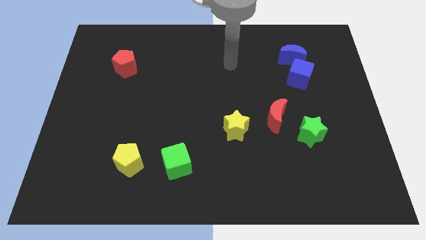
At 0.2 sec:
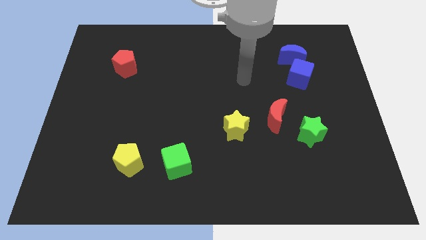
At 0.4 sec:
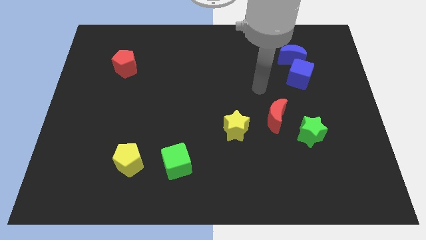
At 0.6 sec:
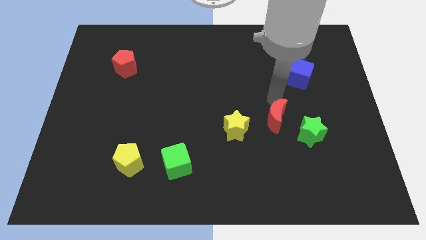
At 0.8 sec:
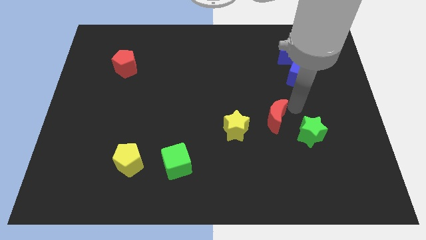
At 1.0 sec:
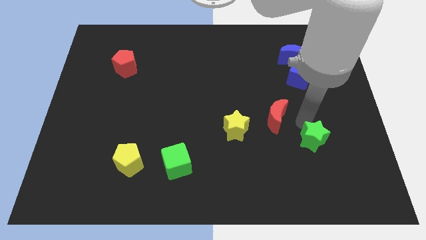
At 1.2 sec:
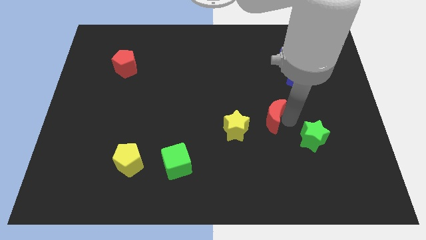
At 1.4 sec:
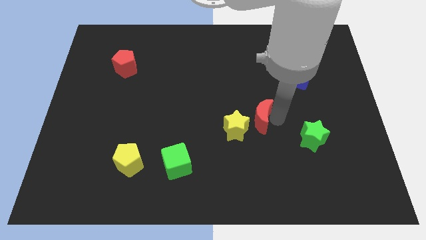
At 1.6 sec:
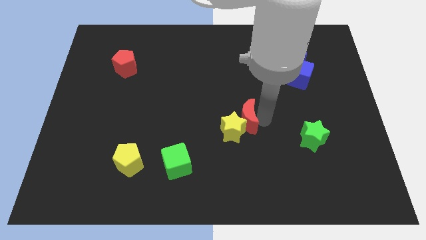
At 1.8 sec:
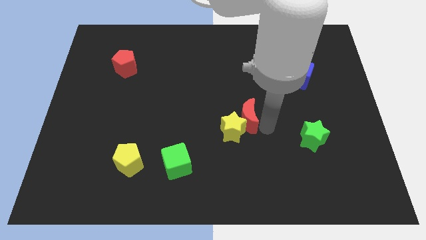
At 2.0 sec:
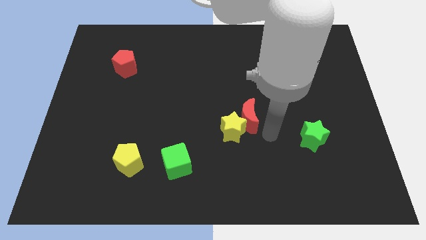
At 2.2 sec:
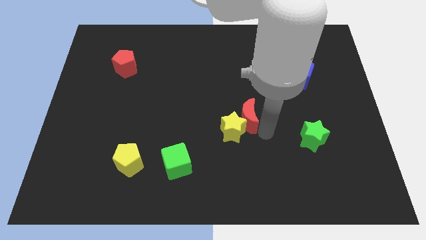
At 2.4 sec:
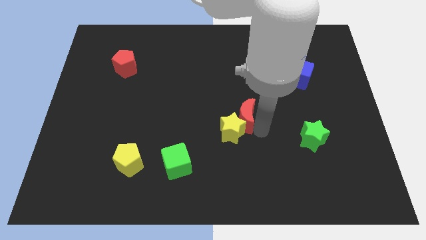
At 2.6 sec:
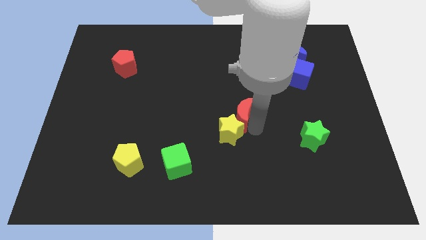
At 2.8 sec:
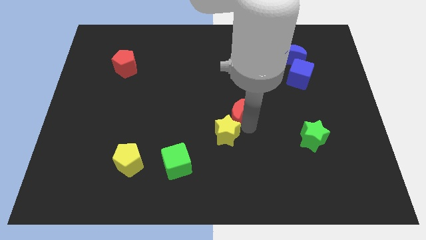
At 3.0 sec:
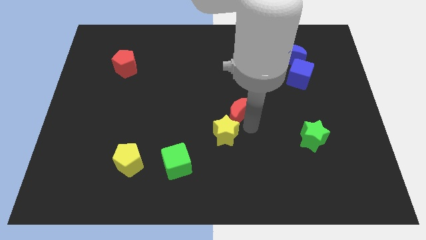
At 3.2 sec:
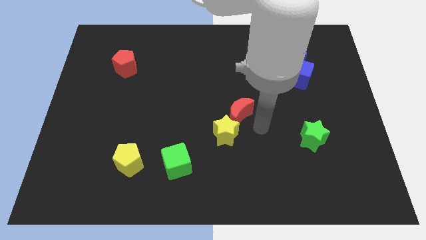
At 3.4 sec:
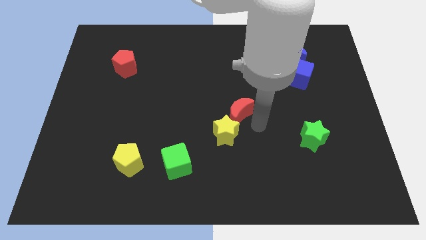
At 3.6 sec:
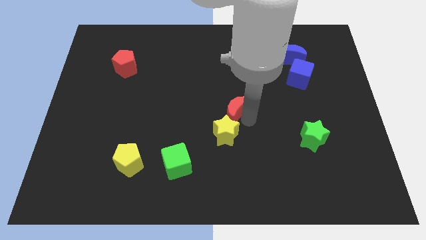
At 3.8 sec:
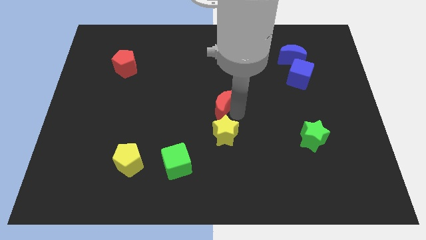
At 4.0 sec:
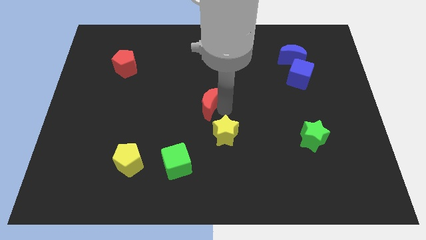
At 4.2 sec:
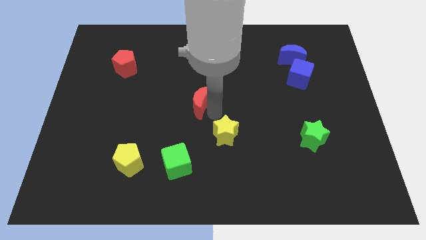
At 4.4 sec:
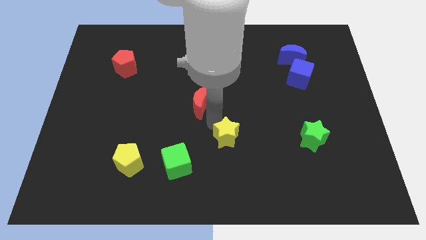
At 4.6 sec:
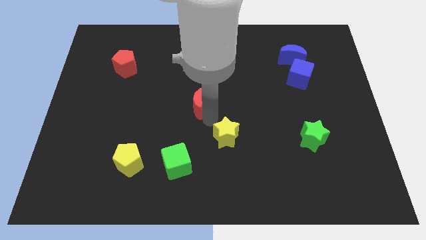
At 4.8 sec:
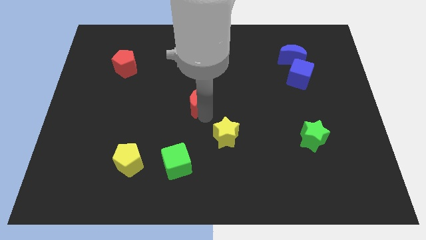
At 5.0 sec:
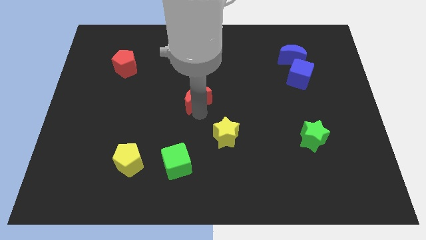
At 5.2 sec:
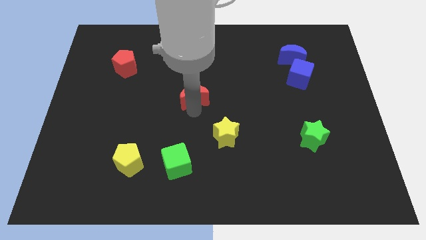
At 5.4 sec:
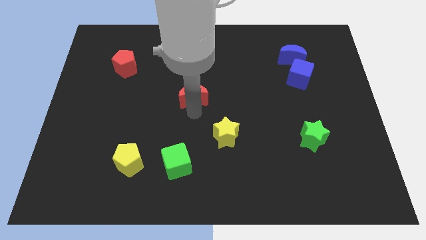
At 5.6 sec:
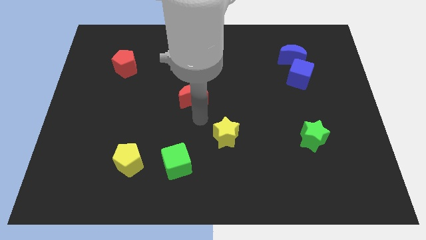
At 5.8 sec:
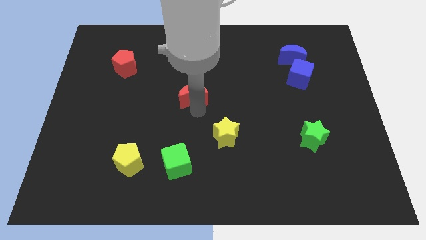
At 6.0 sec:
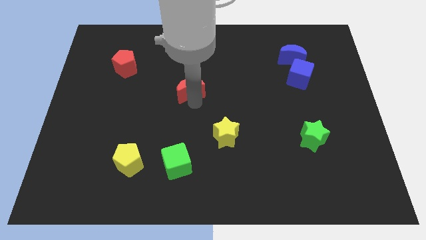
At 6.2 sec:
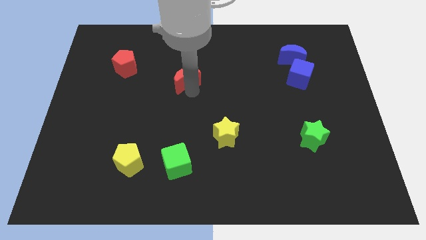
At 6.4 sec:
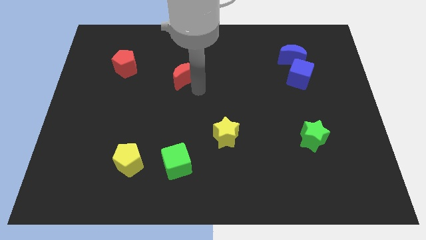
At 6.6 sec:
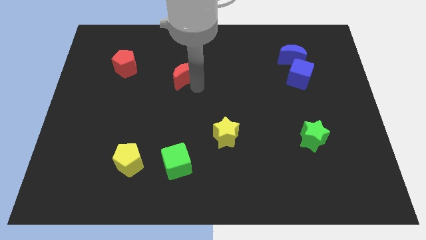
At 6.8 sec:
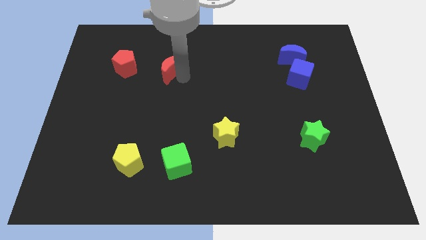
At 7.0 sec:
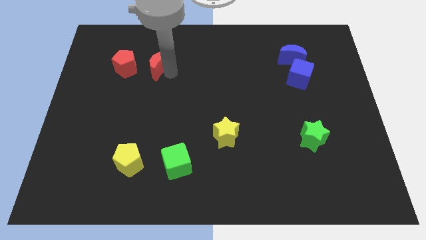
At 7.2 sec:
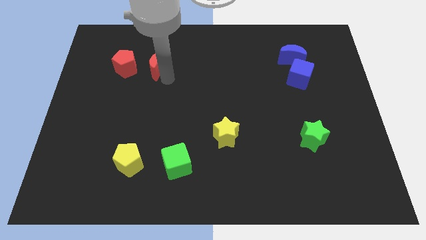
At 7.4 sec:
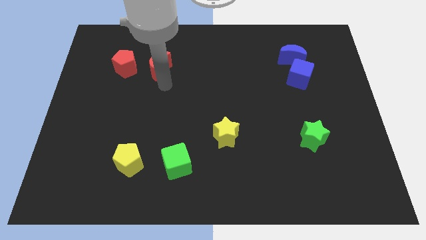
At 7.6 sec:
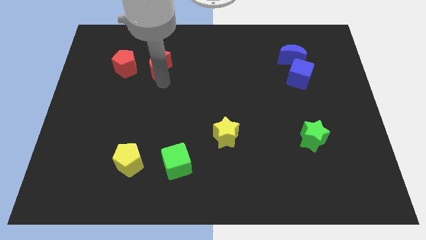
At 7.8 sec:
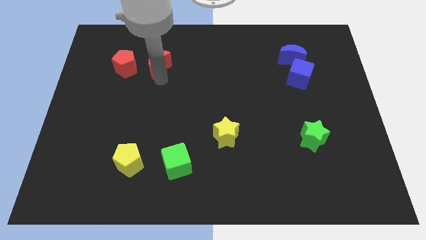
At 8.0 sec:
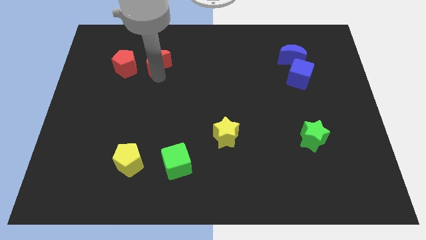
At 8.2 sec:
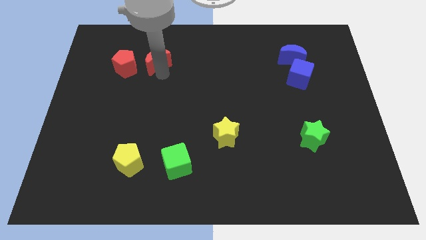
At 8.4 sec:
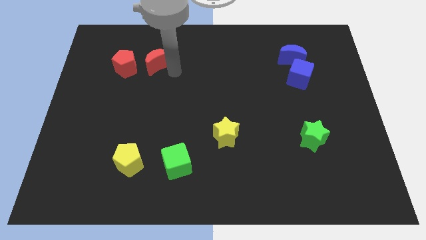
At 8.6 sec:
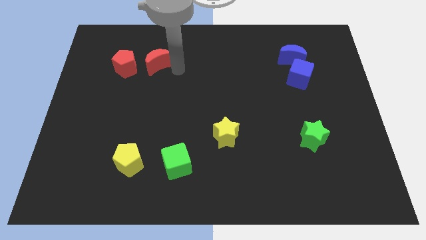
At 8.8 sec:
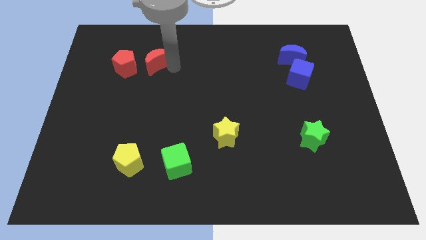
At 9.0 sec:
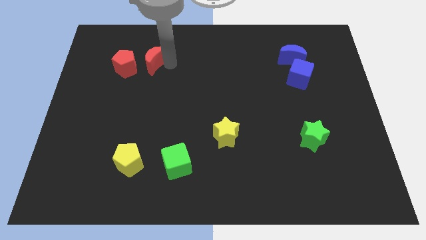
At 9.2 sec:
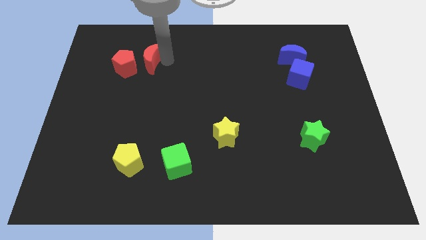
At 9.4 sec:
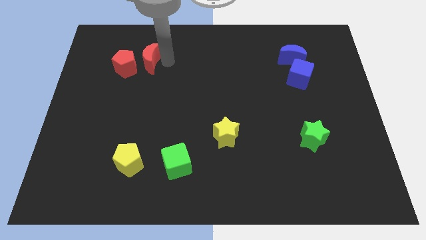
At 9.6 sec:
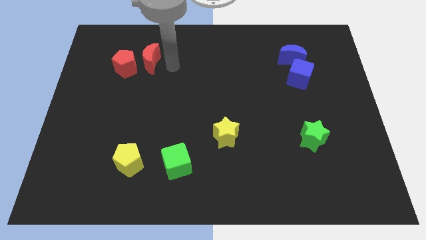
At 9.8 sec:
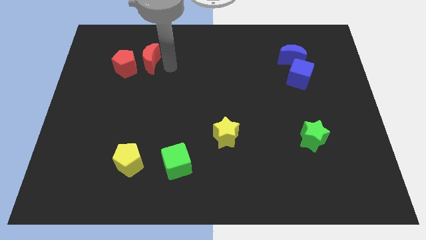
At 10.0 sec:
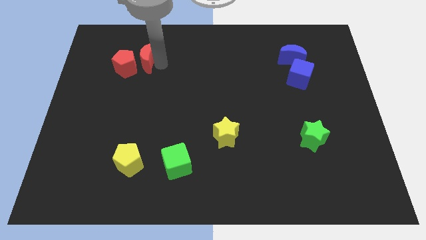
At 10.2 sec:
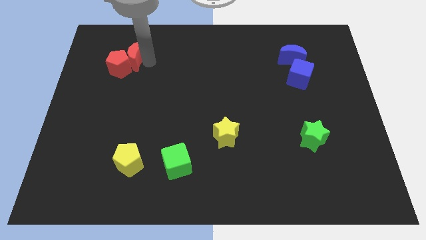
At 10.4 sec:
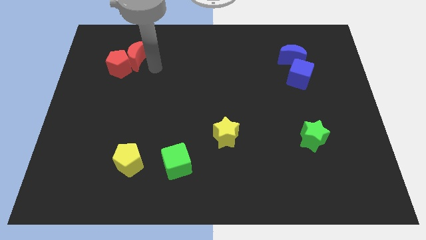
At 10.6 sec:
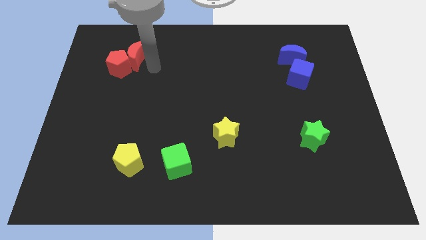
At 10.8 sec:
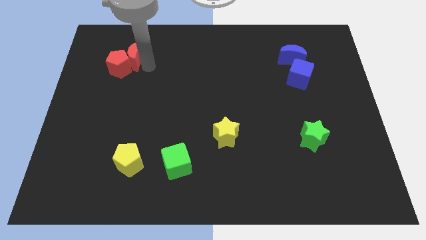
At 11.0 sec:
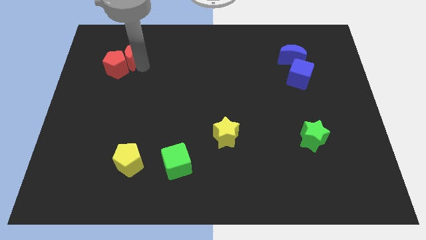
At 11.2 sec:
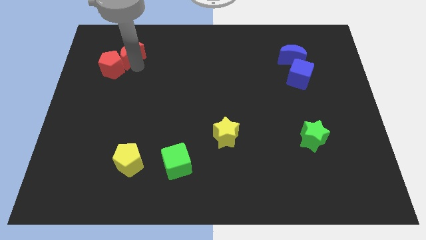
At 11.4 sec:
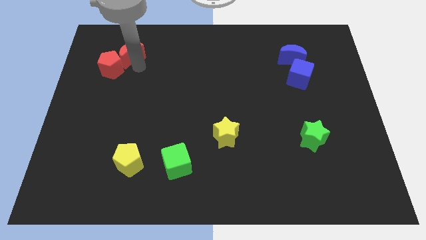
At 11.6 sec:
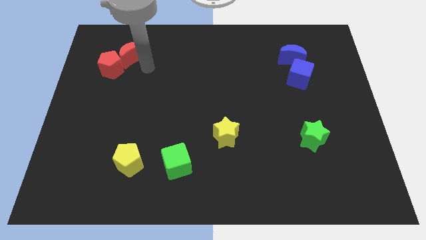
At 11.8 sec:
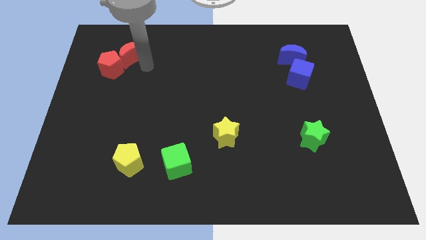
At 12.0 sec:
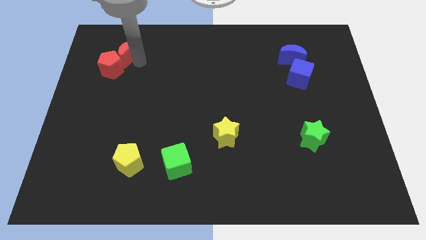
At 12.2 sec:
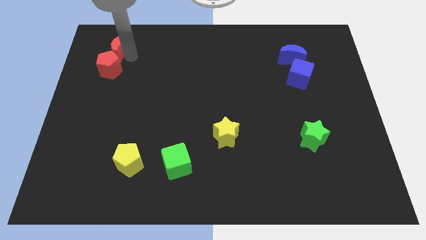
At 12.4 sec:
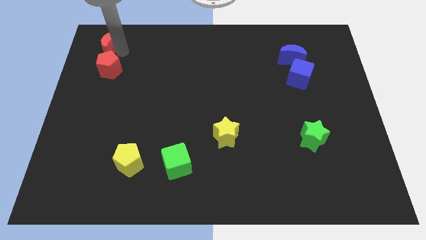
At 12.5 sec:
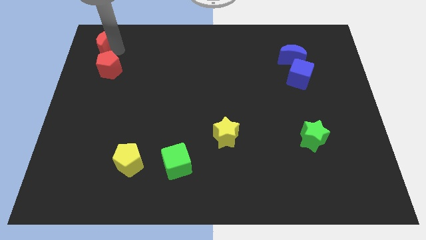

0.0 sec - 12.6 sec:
slide the red moon to the top left corner

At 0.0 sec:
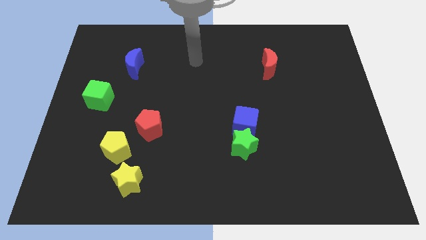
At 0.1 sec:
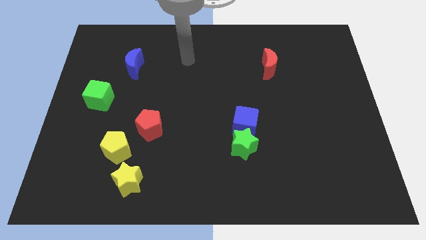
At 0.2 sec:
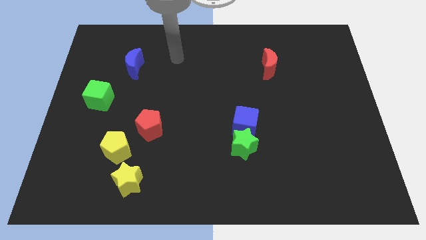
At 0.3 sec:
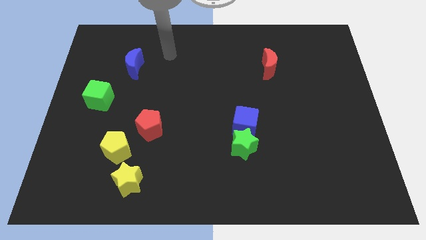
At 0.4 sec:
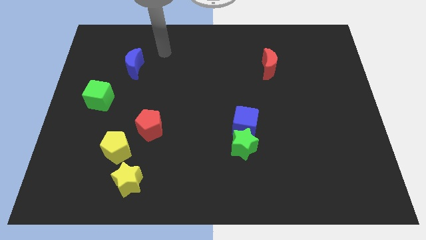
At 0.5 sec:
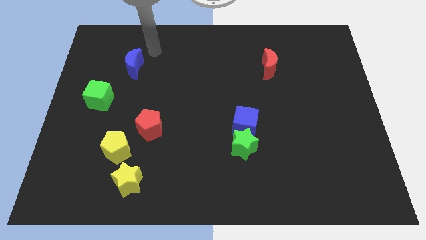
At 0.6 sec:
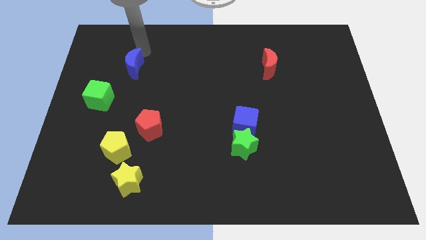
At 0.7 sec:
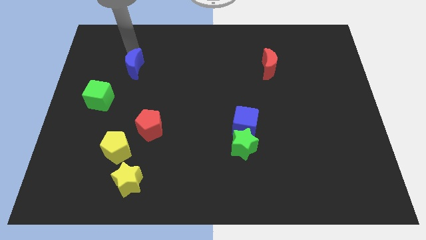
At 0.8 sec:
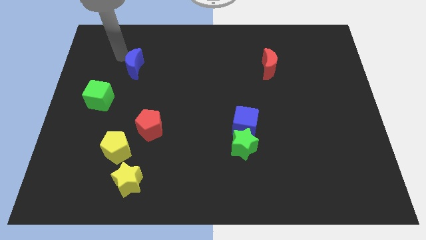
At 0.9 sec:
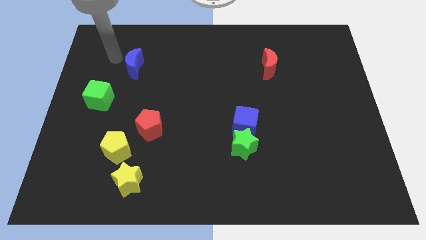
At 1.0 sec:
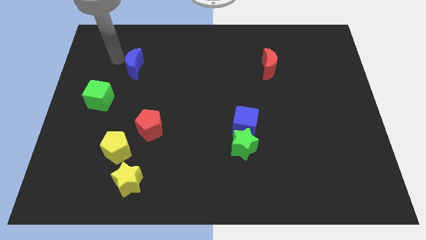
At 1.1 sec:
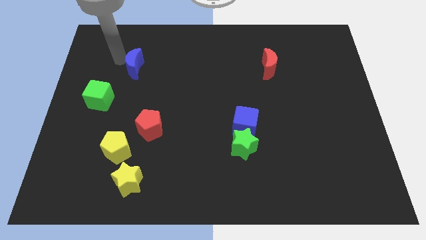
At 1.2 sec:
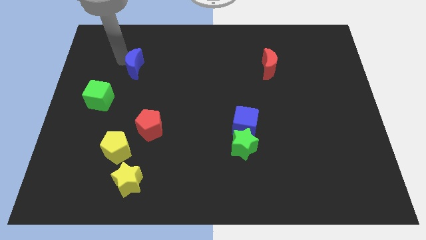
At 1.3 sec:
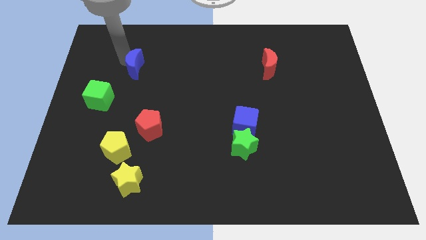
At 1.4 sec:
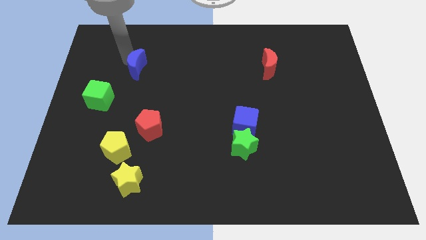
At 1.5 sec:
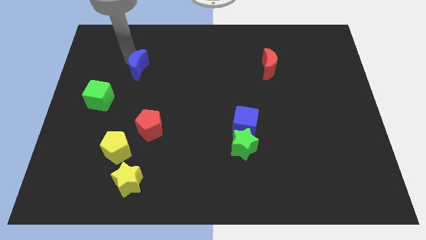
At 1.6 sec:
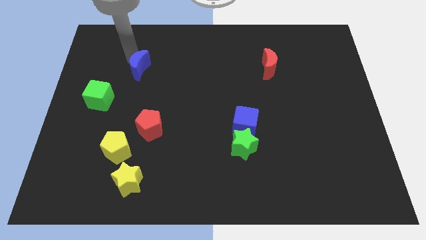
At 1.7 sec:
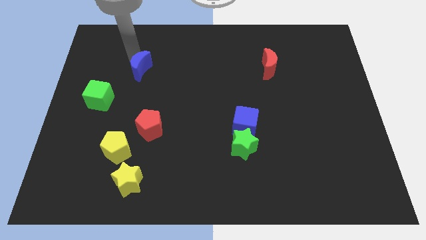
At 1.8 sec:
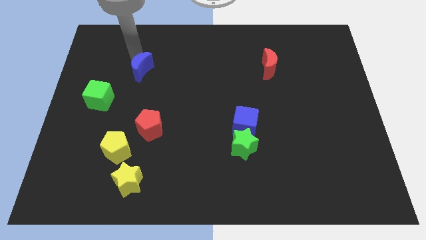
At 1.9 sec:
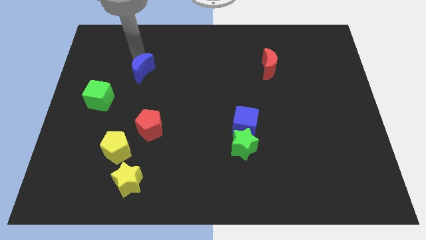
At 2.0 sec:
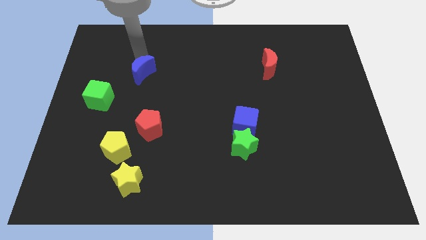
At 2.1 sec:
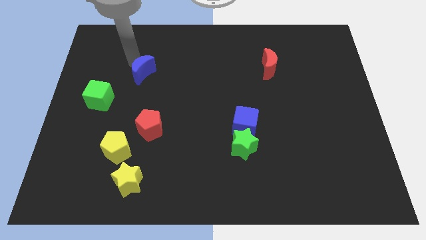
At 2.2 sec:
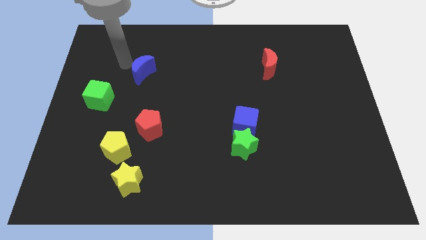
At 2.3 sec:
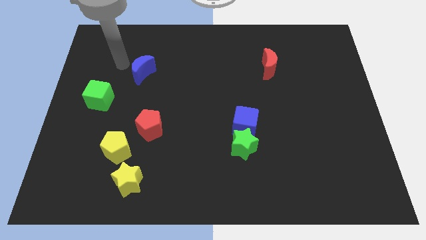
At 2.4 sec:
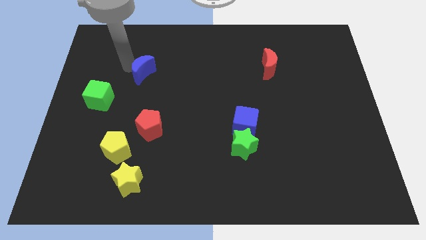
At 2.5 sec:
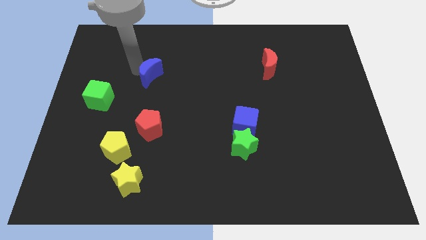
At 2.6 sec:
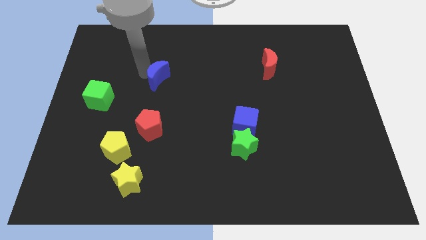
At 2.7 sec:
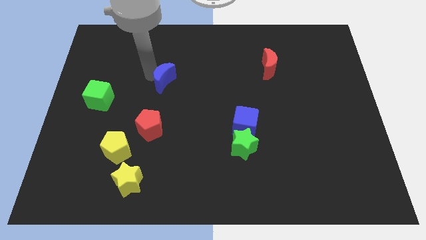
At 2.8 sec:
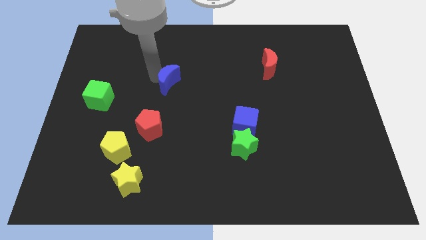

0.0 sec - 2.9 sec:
slide the blue moon to the middle
